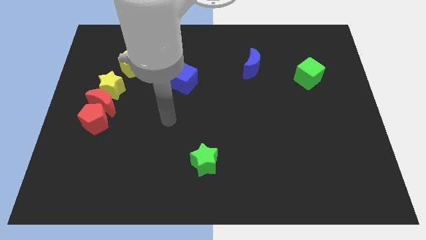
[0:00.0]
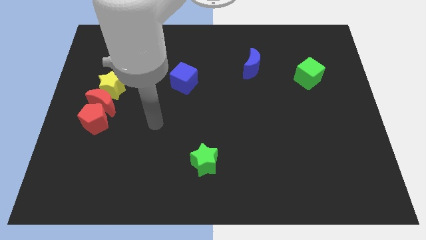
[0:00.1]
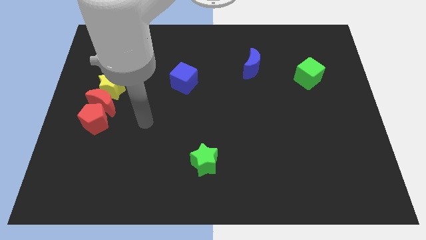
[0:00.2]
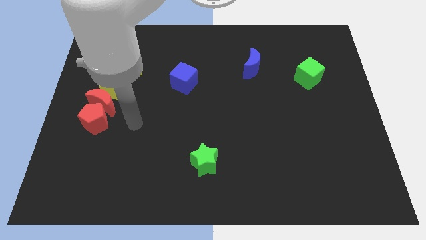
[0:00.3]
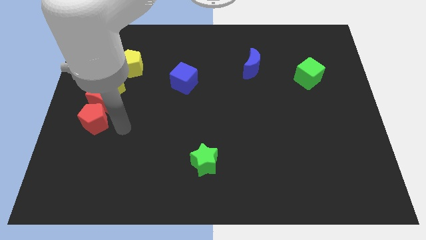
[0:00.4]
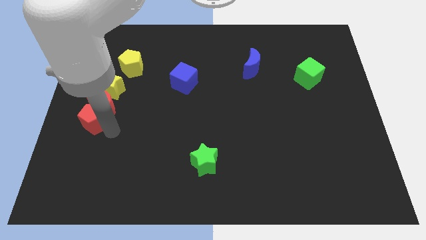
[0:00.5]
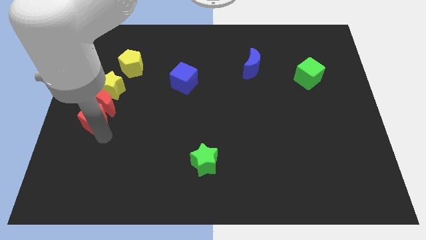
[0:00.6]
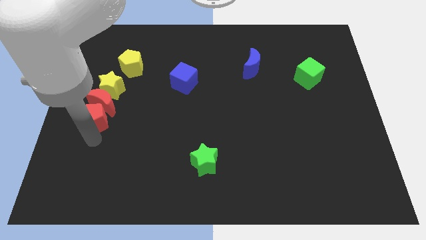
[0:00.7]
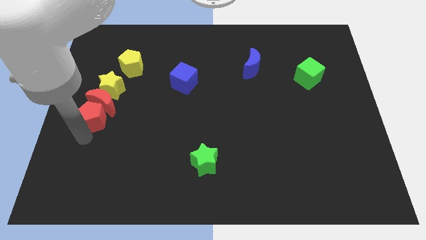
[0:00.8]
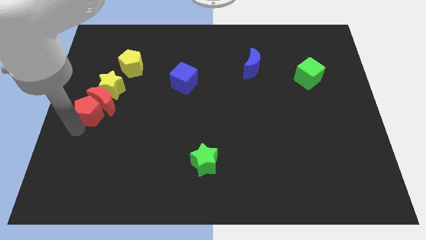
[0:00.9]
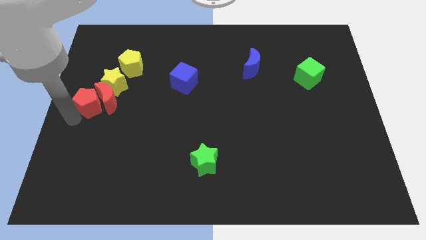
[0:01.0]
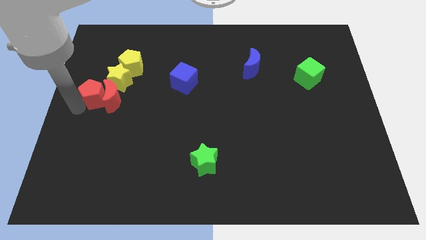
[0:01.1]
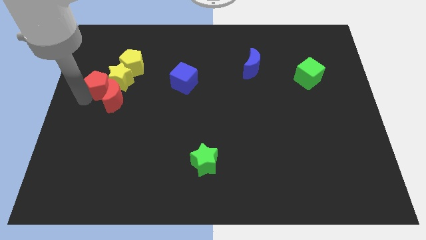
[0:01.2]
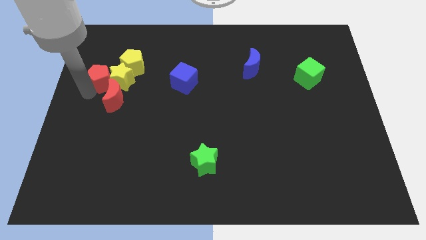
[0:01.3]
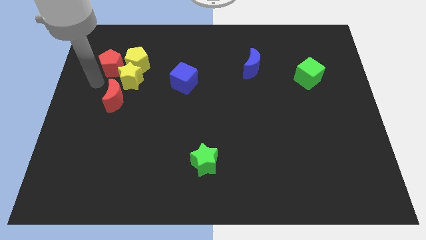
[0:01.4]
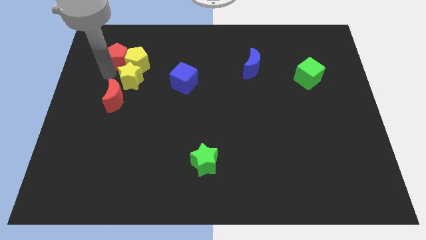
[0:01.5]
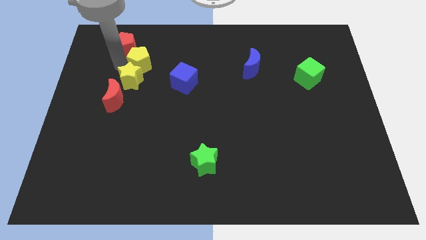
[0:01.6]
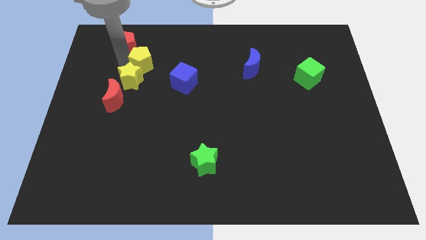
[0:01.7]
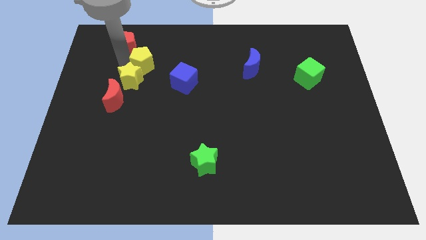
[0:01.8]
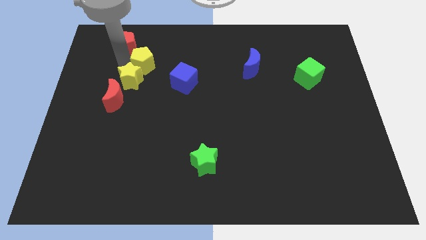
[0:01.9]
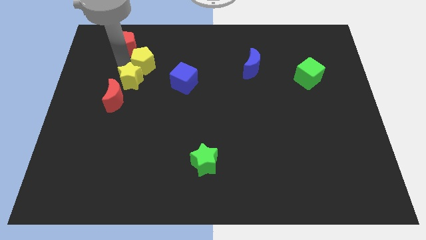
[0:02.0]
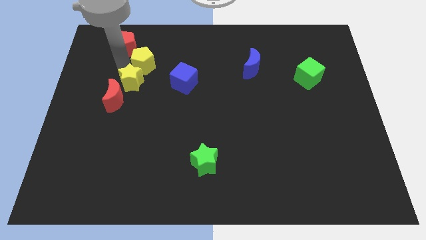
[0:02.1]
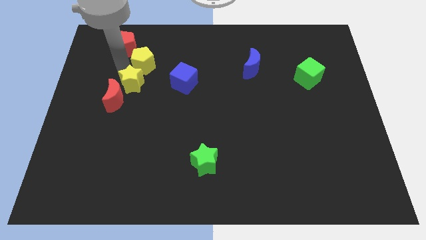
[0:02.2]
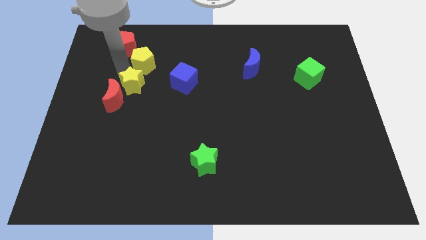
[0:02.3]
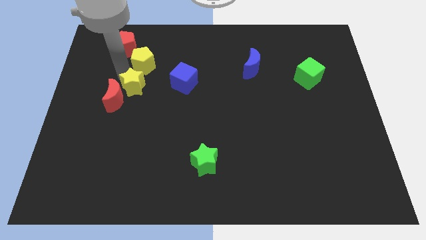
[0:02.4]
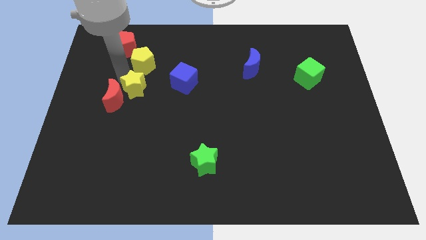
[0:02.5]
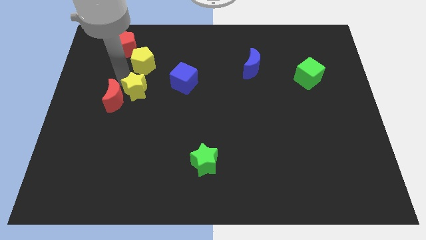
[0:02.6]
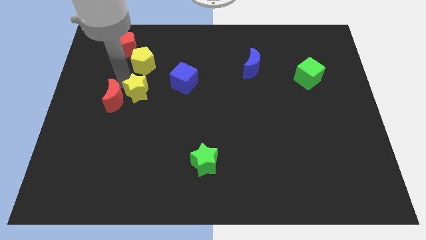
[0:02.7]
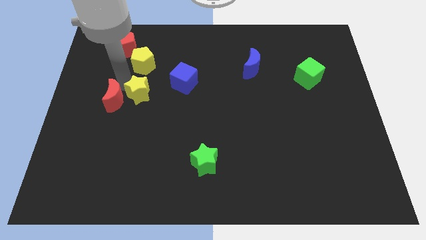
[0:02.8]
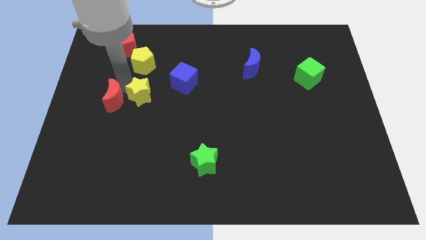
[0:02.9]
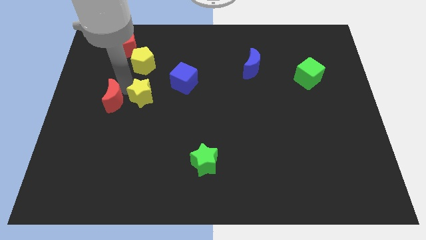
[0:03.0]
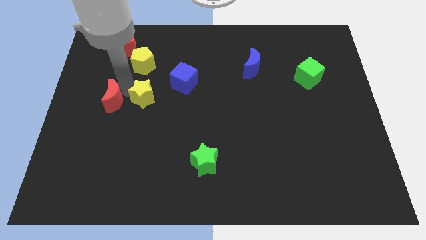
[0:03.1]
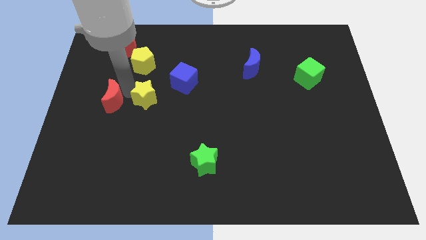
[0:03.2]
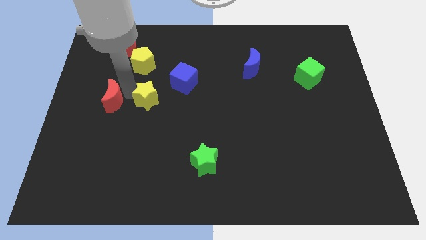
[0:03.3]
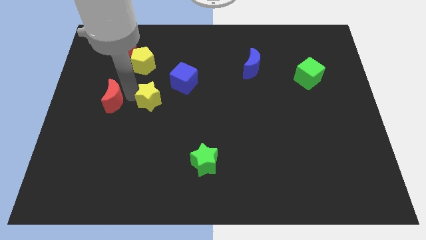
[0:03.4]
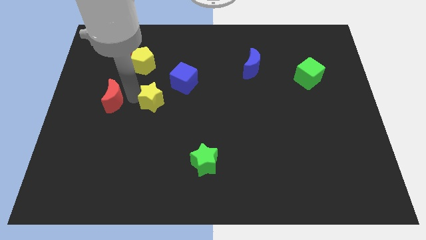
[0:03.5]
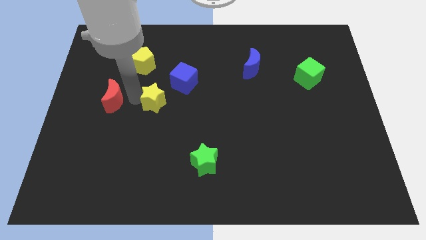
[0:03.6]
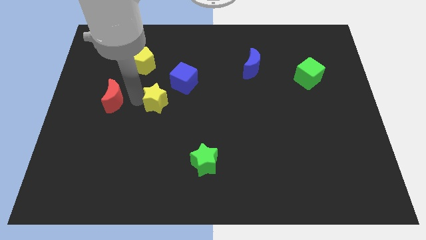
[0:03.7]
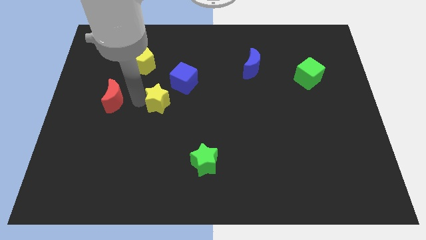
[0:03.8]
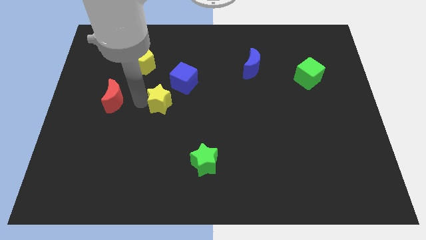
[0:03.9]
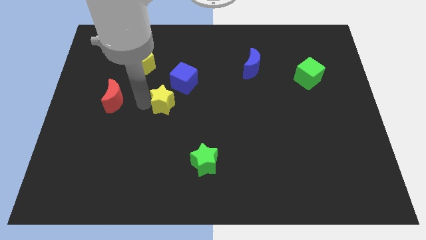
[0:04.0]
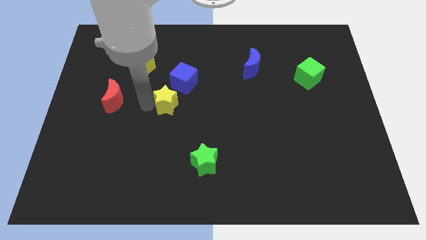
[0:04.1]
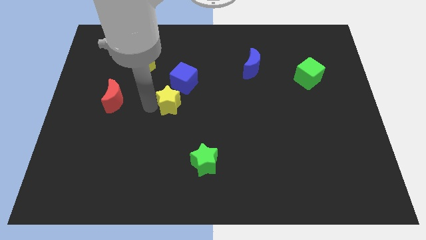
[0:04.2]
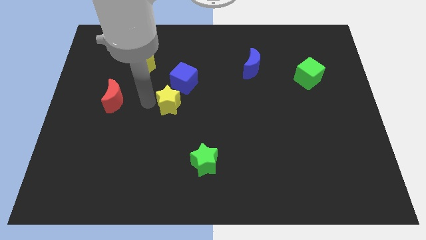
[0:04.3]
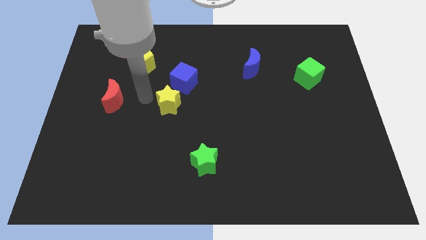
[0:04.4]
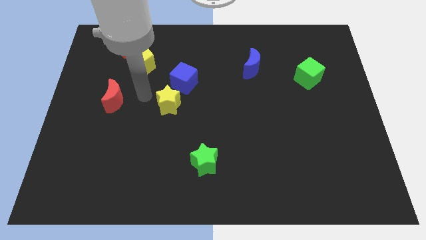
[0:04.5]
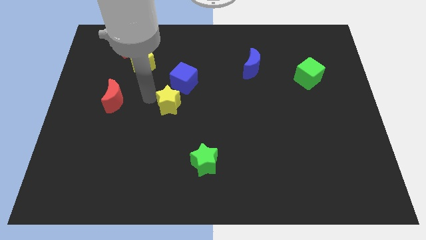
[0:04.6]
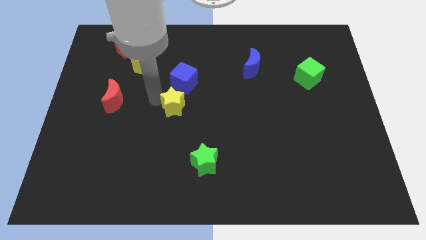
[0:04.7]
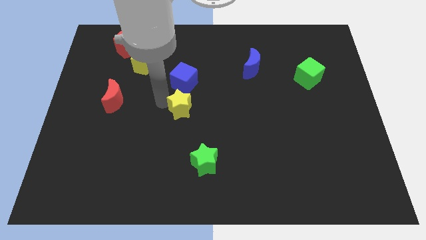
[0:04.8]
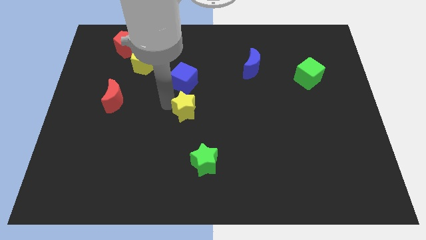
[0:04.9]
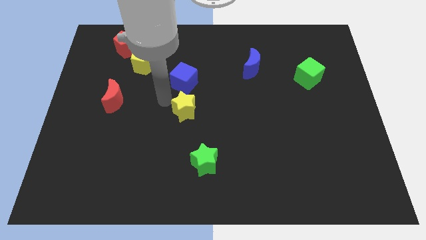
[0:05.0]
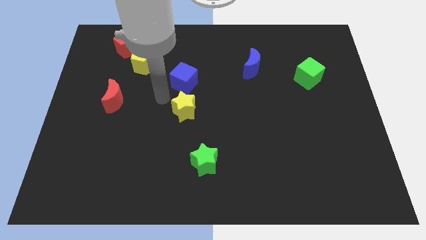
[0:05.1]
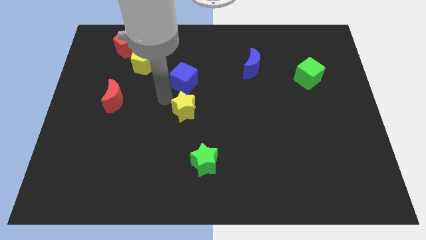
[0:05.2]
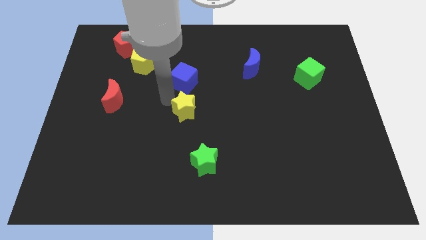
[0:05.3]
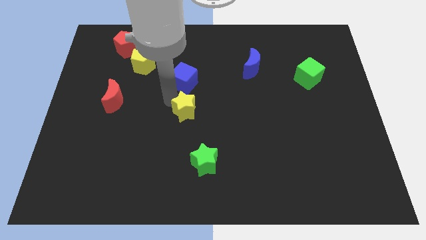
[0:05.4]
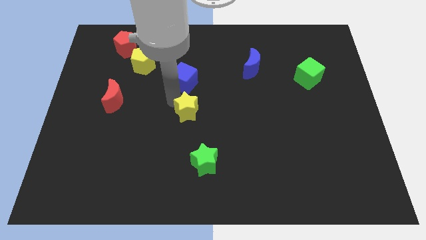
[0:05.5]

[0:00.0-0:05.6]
slide the yellow star to the top of the green star

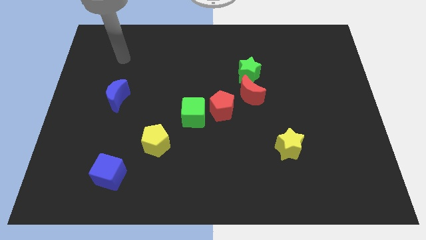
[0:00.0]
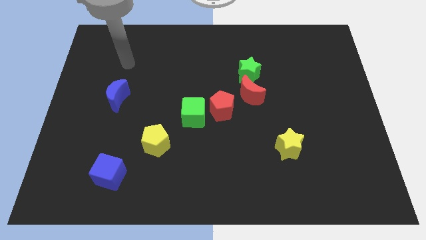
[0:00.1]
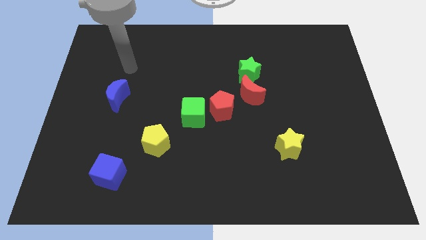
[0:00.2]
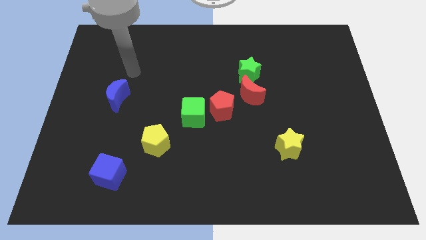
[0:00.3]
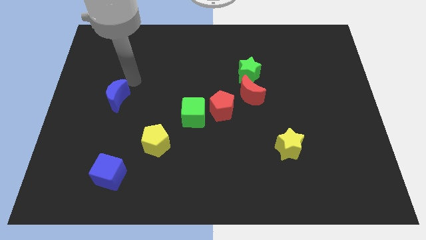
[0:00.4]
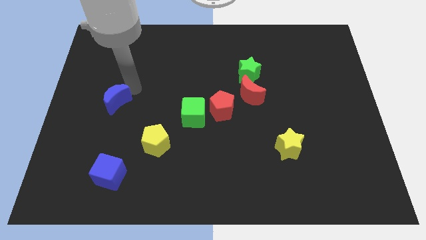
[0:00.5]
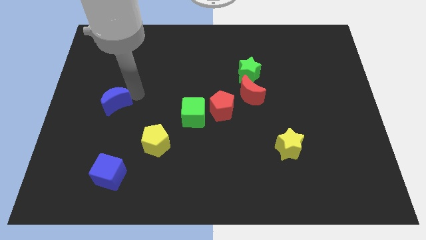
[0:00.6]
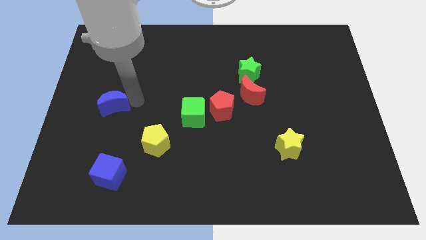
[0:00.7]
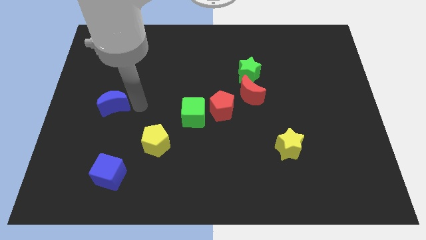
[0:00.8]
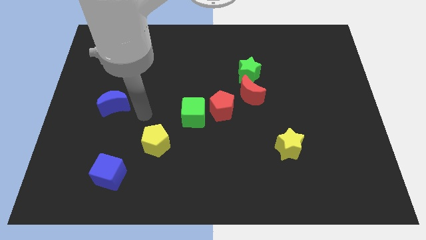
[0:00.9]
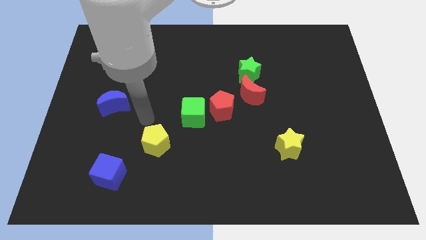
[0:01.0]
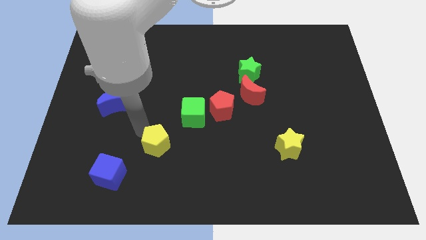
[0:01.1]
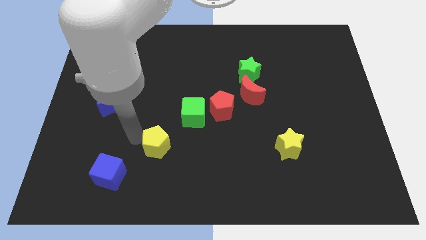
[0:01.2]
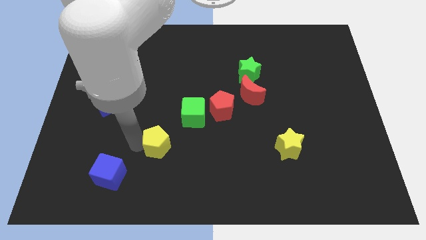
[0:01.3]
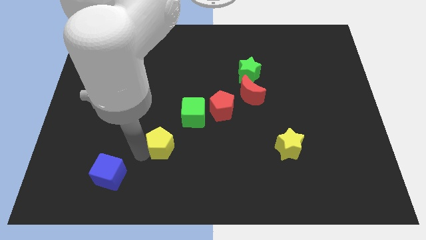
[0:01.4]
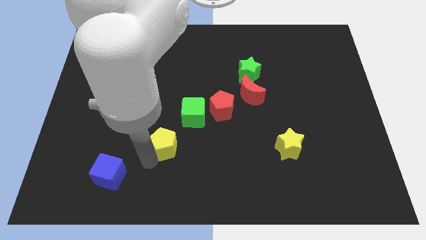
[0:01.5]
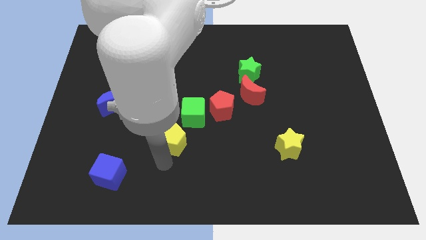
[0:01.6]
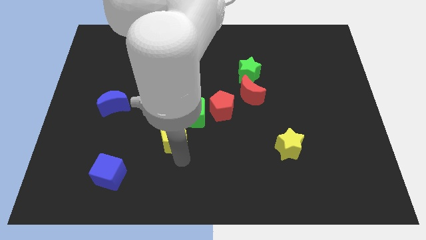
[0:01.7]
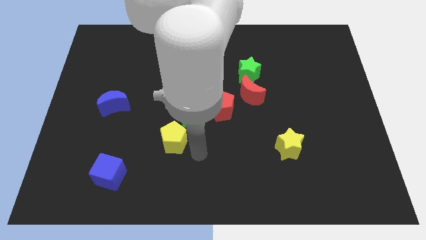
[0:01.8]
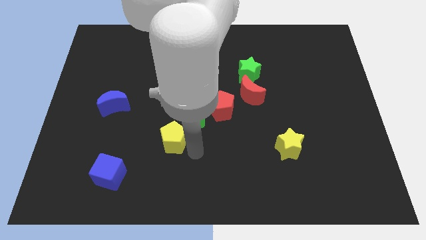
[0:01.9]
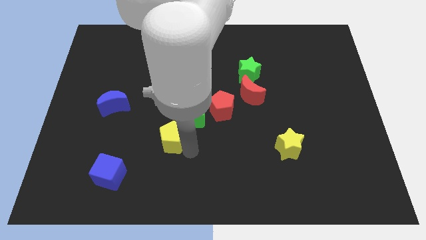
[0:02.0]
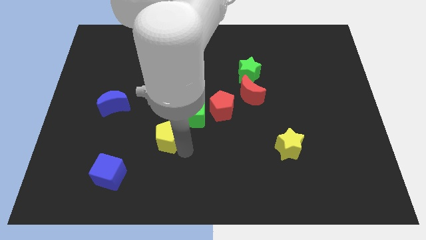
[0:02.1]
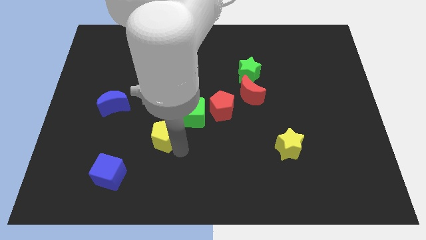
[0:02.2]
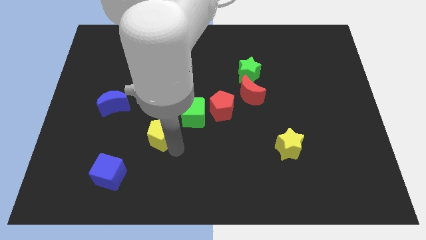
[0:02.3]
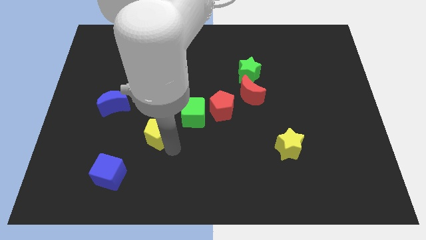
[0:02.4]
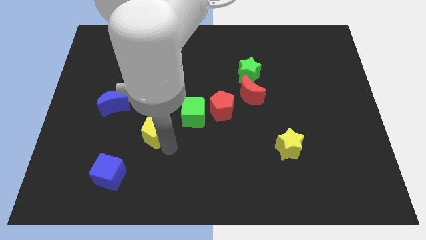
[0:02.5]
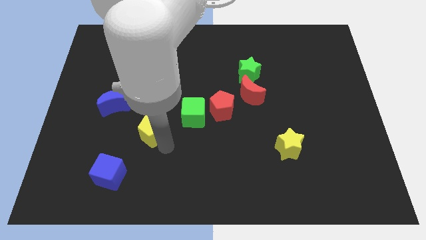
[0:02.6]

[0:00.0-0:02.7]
put the yellow pentagon to the bottom right of the blue moon
